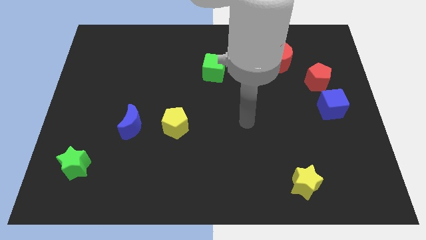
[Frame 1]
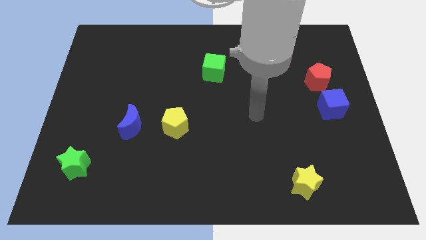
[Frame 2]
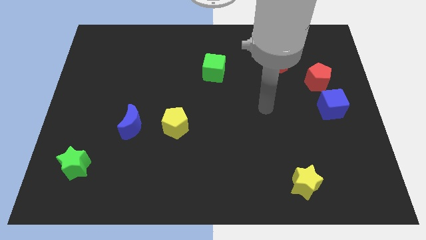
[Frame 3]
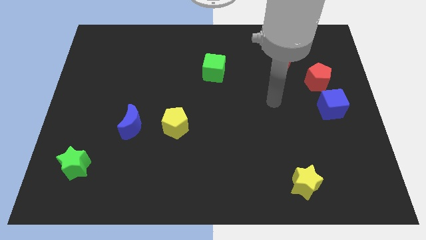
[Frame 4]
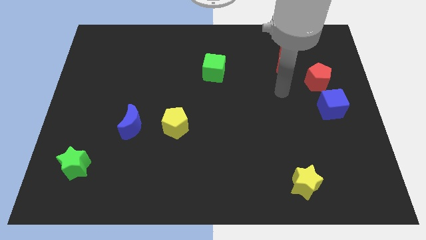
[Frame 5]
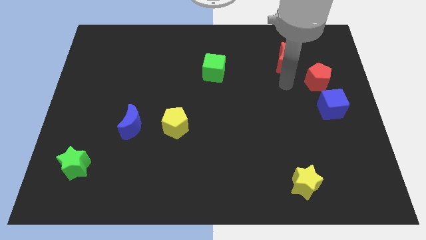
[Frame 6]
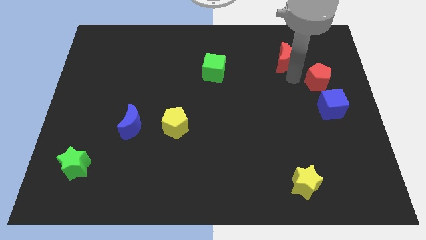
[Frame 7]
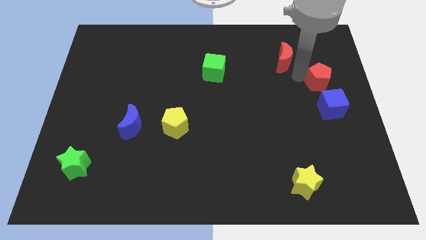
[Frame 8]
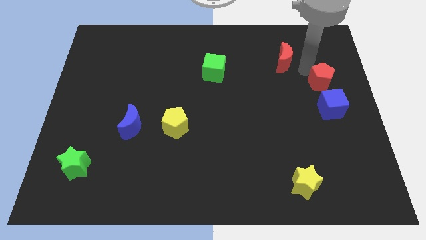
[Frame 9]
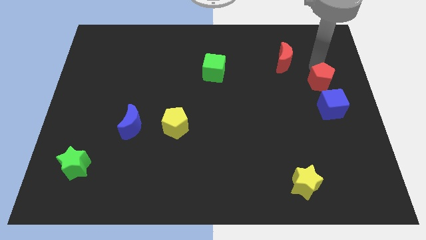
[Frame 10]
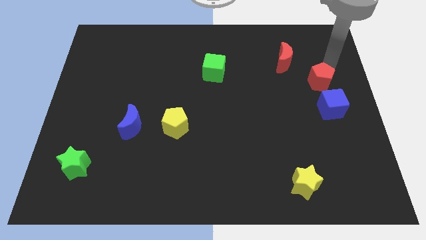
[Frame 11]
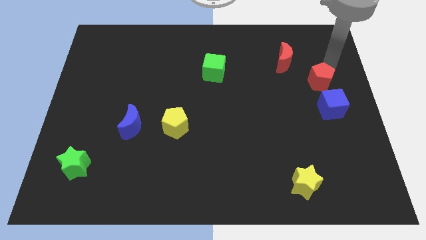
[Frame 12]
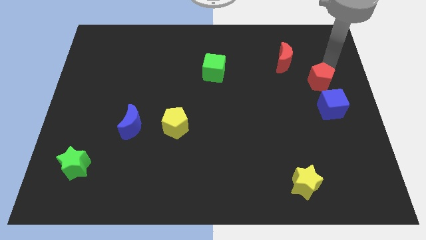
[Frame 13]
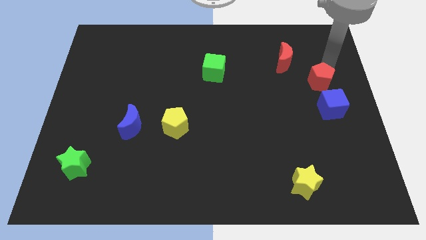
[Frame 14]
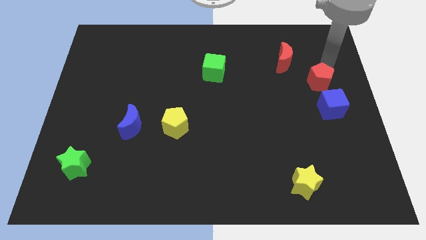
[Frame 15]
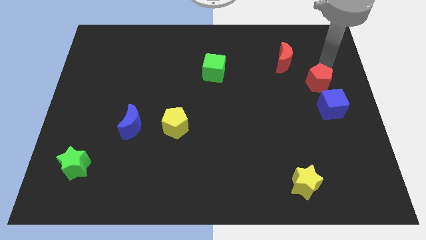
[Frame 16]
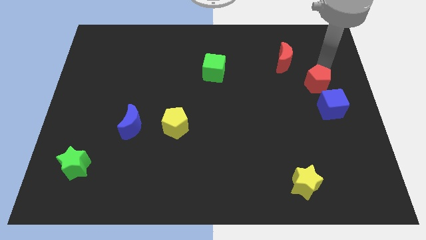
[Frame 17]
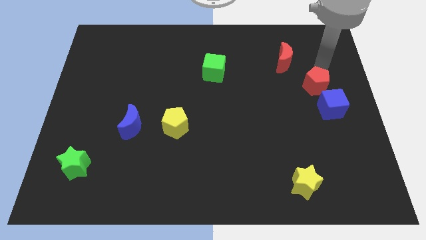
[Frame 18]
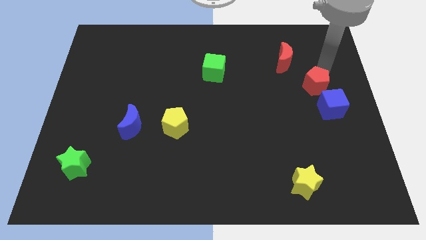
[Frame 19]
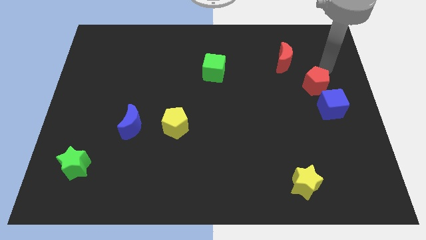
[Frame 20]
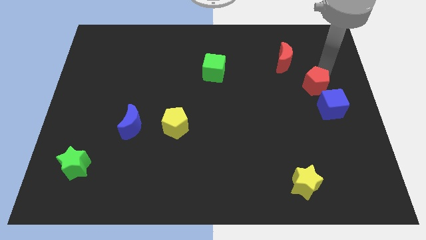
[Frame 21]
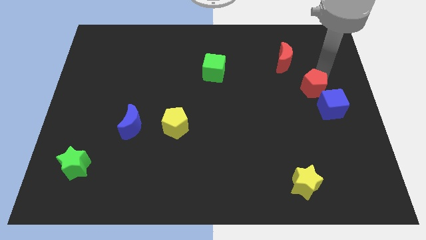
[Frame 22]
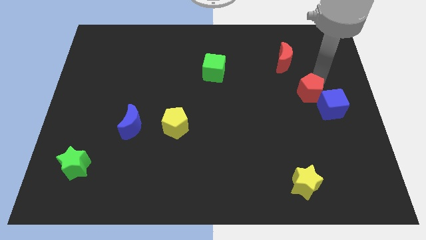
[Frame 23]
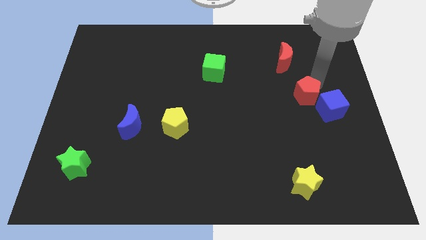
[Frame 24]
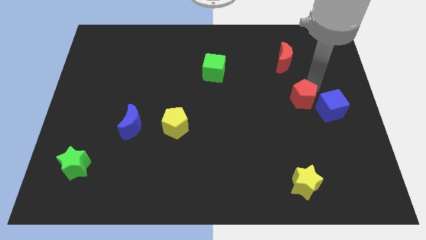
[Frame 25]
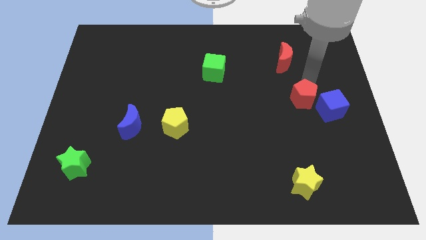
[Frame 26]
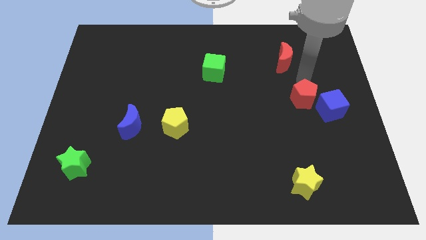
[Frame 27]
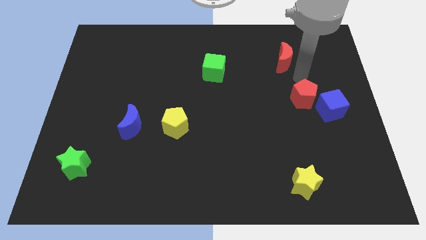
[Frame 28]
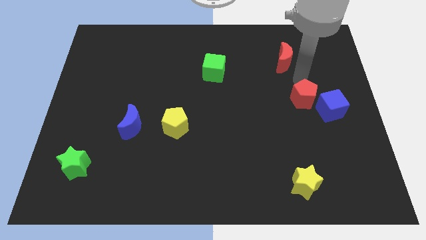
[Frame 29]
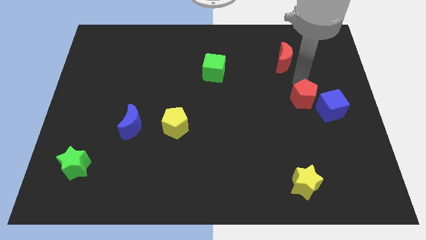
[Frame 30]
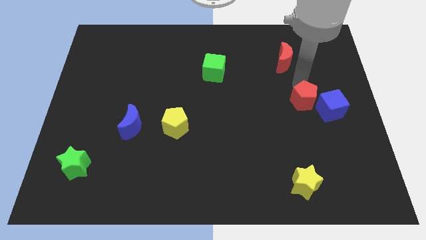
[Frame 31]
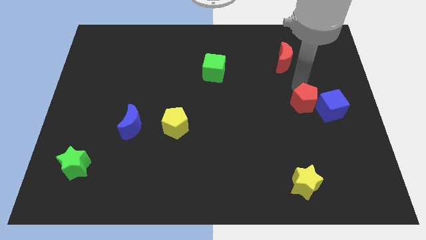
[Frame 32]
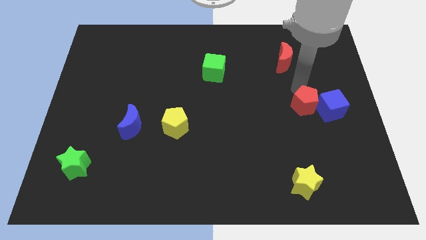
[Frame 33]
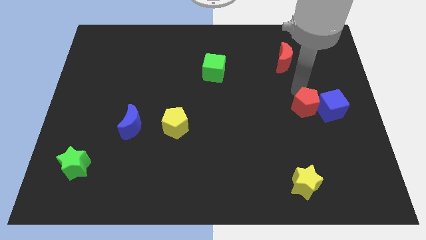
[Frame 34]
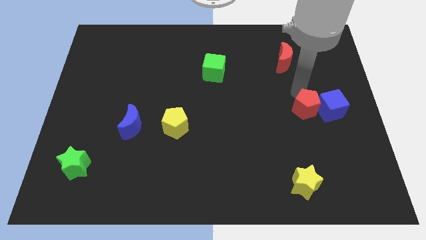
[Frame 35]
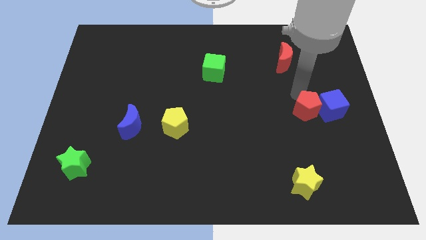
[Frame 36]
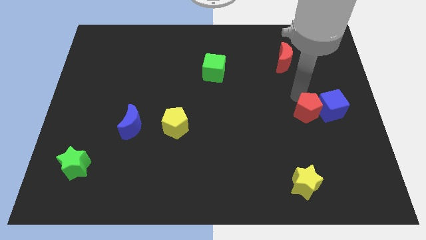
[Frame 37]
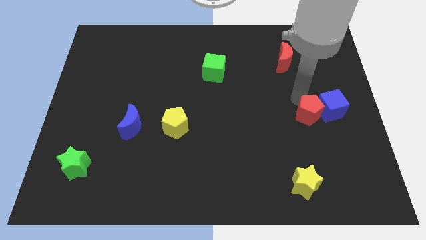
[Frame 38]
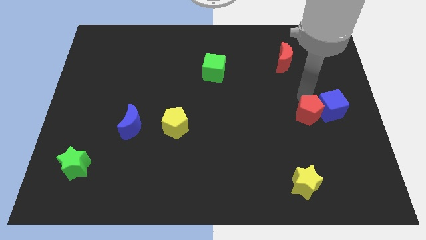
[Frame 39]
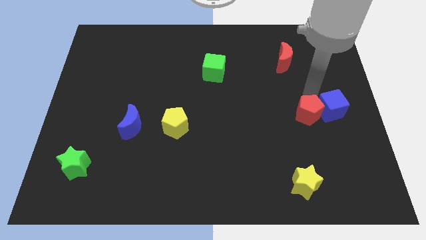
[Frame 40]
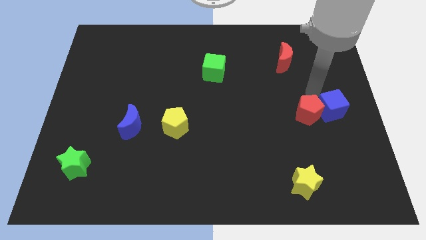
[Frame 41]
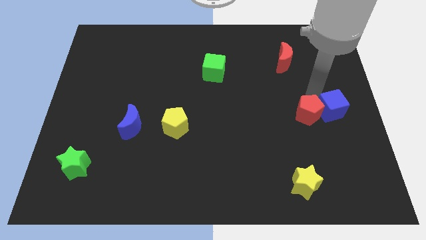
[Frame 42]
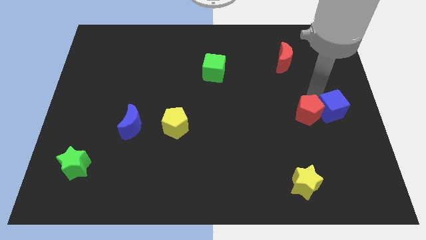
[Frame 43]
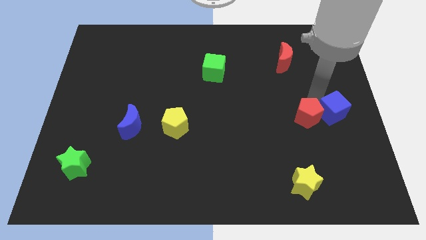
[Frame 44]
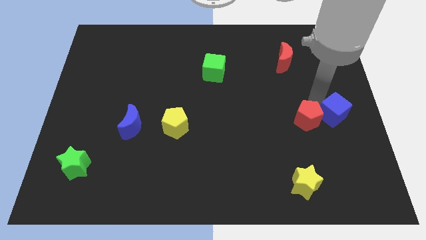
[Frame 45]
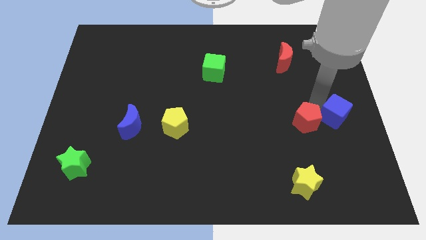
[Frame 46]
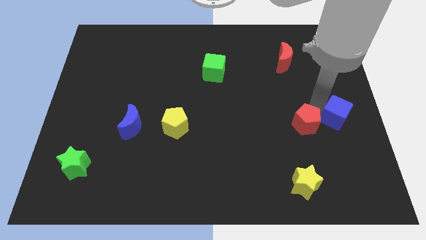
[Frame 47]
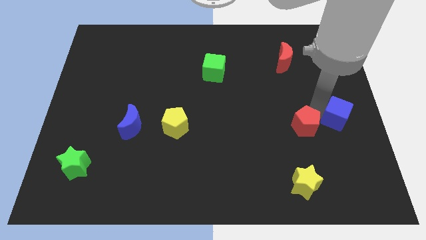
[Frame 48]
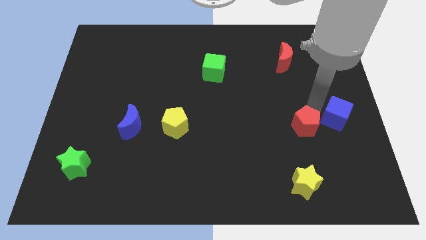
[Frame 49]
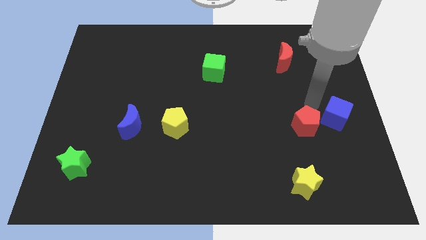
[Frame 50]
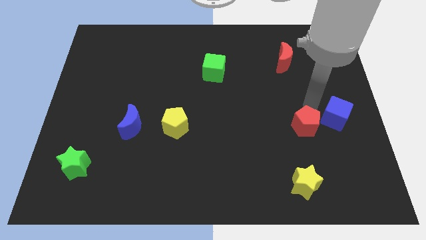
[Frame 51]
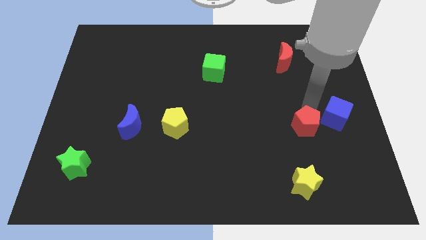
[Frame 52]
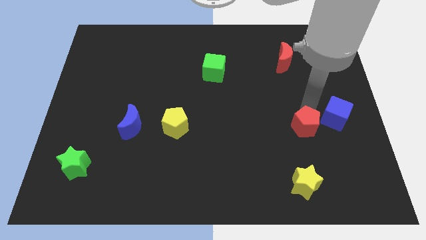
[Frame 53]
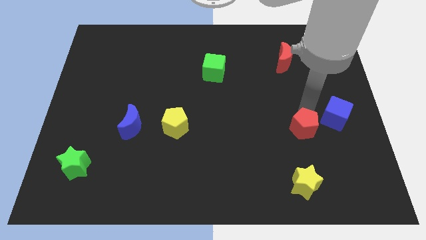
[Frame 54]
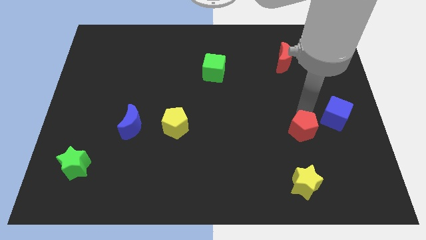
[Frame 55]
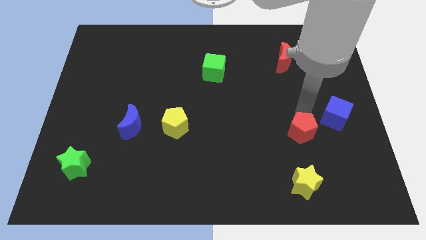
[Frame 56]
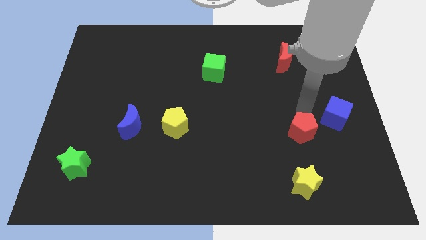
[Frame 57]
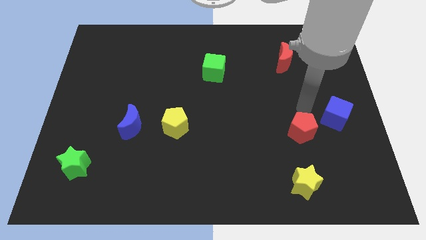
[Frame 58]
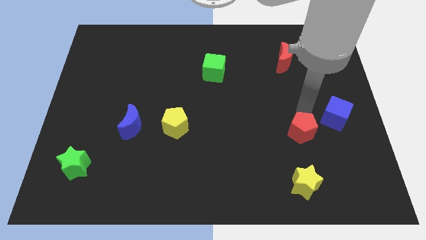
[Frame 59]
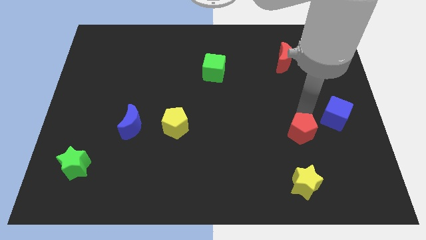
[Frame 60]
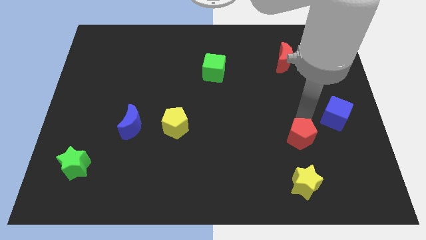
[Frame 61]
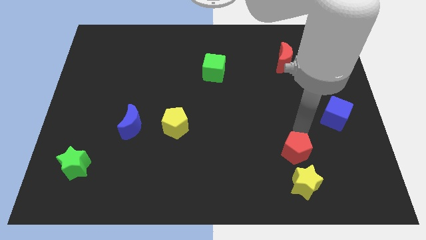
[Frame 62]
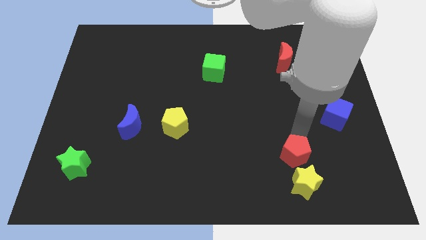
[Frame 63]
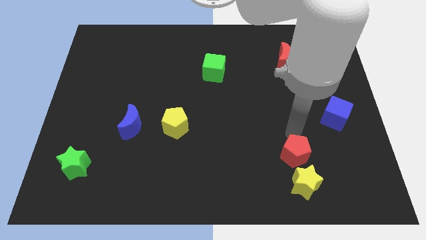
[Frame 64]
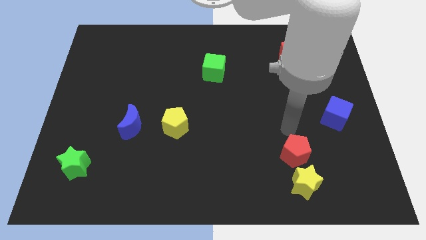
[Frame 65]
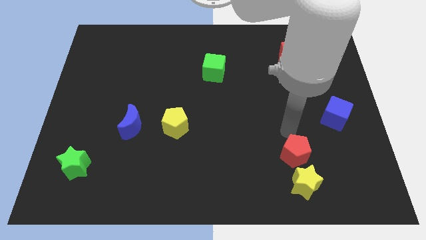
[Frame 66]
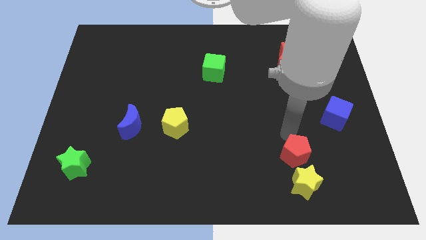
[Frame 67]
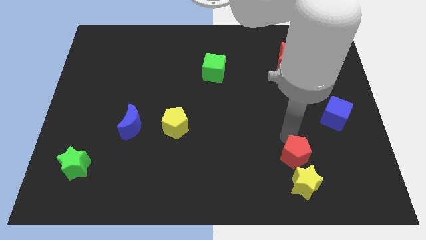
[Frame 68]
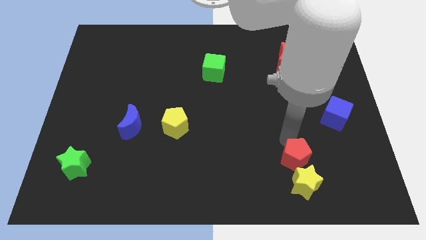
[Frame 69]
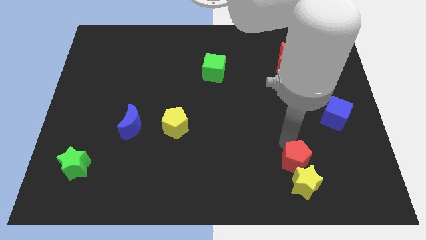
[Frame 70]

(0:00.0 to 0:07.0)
push the red pentagon towards the yellow star

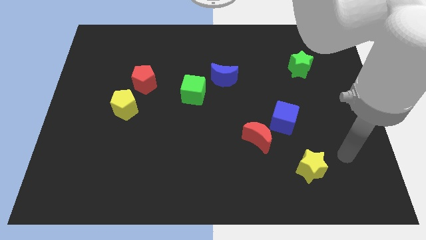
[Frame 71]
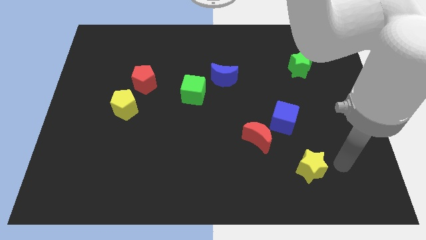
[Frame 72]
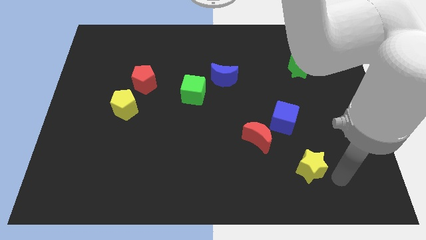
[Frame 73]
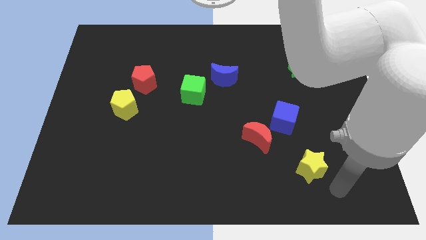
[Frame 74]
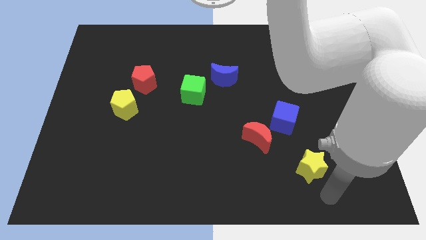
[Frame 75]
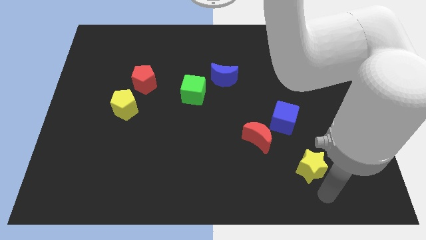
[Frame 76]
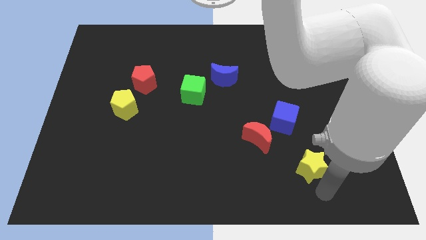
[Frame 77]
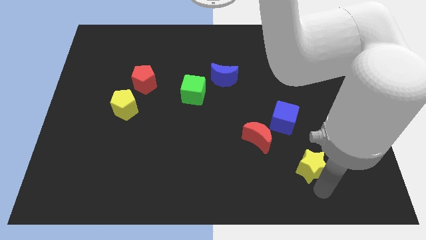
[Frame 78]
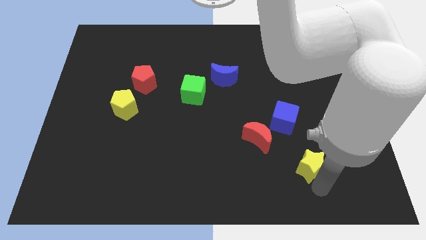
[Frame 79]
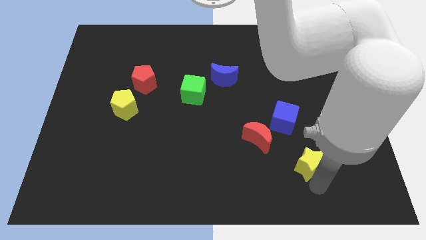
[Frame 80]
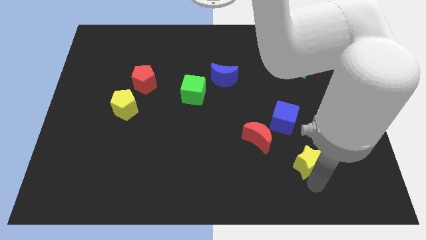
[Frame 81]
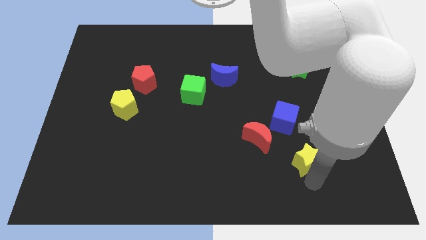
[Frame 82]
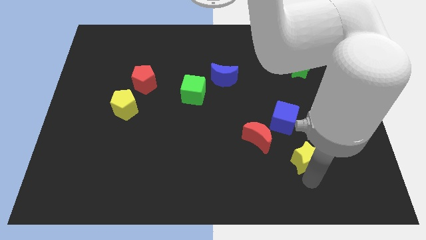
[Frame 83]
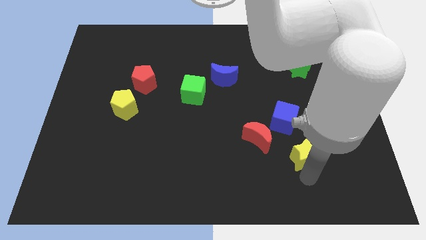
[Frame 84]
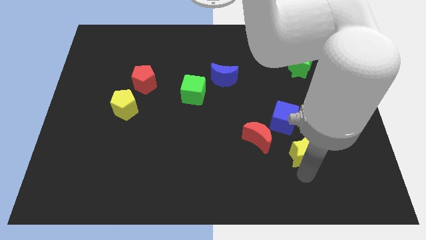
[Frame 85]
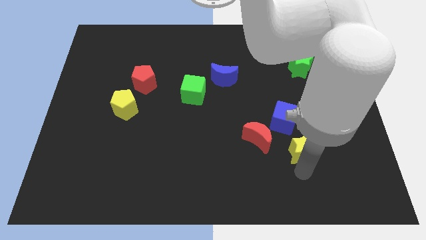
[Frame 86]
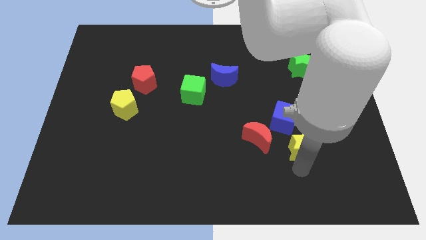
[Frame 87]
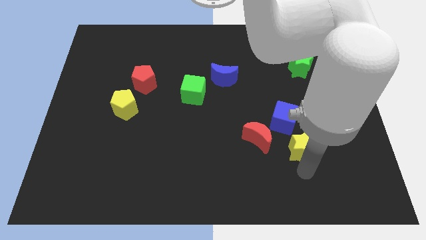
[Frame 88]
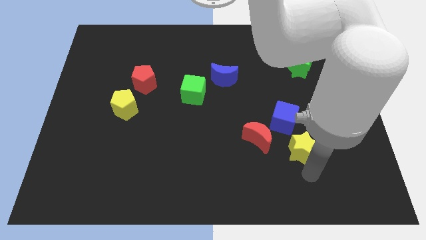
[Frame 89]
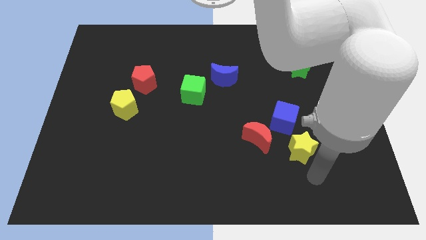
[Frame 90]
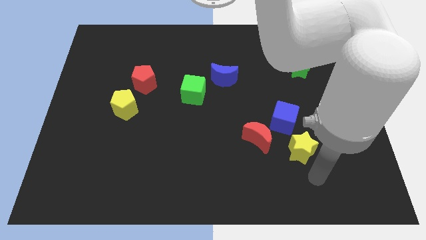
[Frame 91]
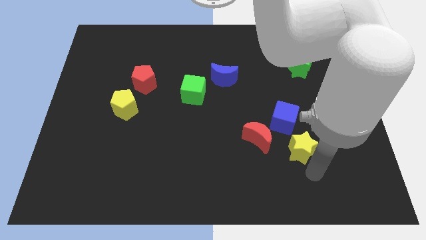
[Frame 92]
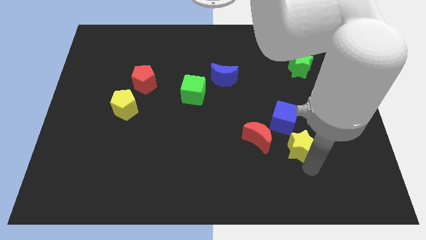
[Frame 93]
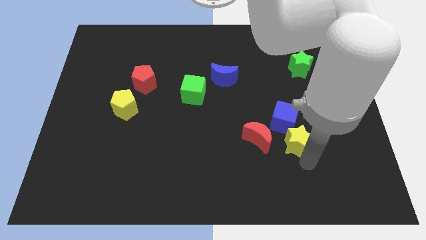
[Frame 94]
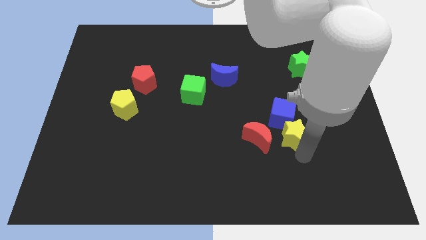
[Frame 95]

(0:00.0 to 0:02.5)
push the yellow star to the blue cube
